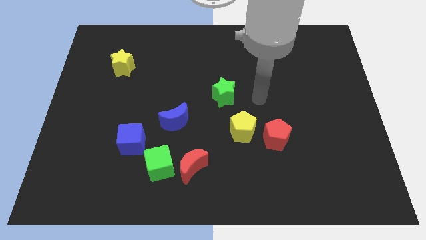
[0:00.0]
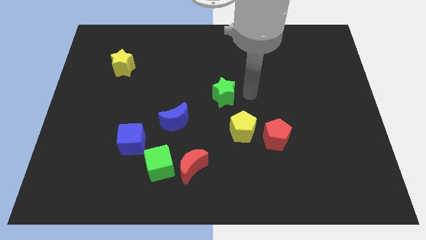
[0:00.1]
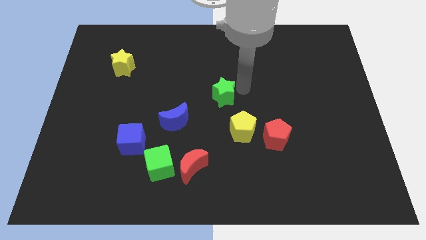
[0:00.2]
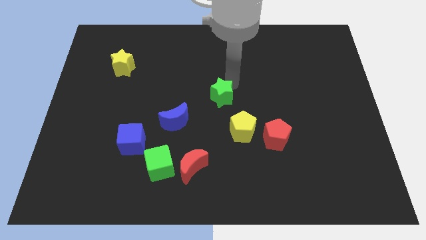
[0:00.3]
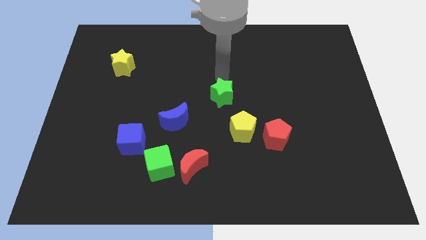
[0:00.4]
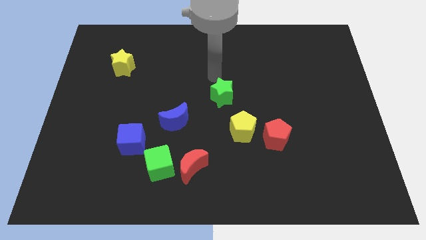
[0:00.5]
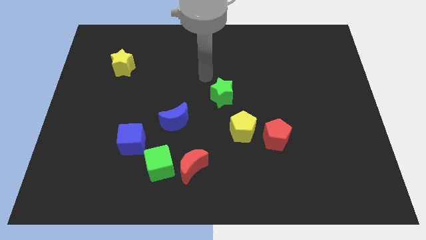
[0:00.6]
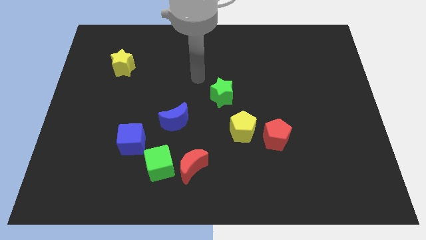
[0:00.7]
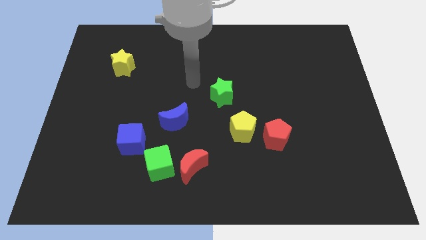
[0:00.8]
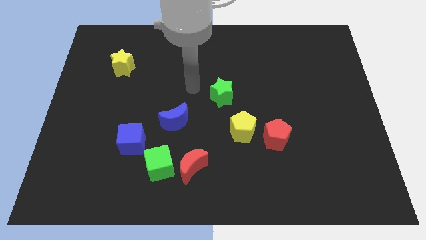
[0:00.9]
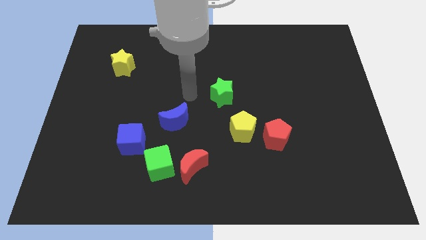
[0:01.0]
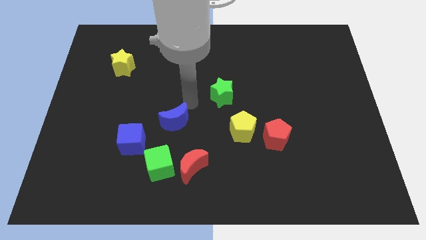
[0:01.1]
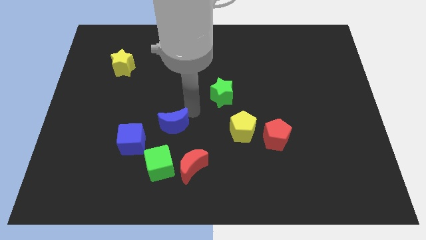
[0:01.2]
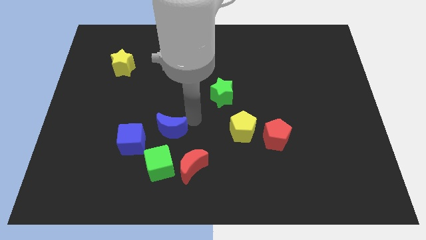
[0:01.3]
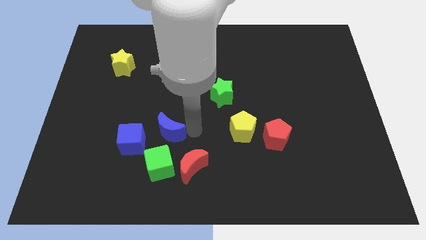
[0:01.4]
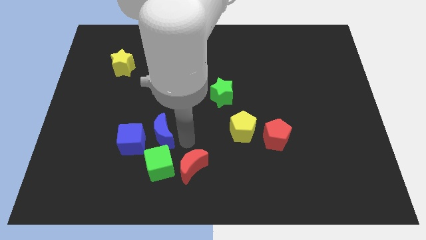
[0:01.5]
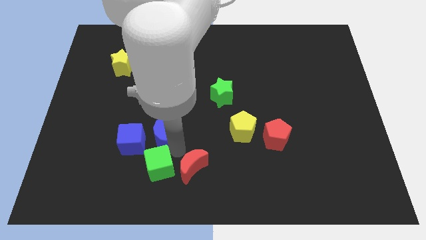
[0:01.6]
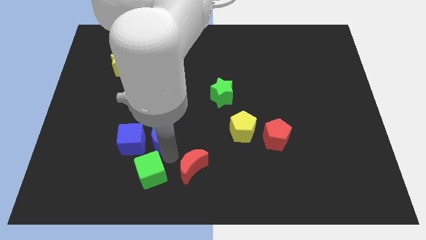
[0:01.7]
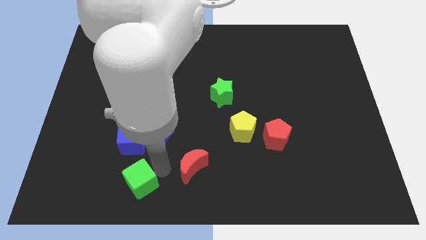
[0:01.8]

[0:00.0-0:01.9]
pull the red moon apart from the green cube

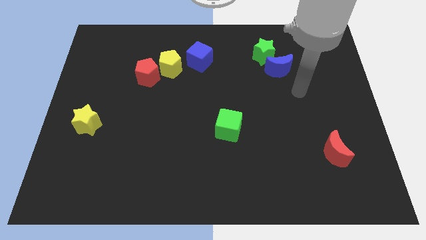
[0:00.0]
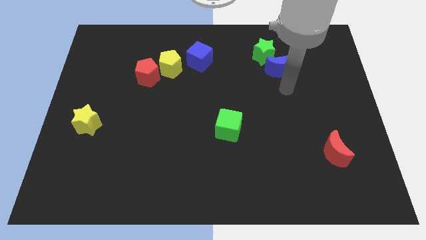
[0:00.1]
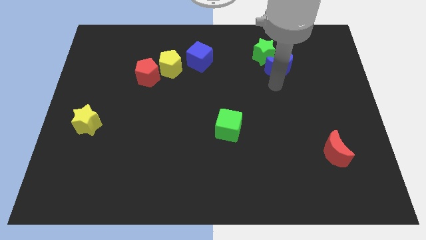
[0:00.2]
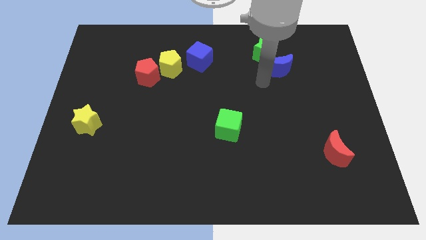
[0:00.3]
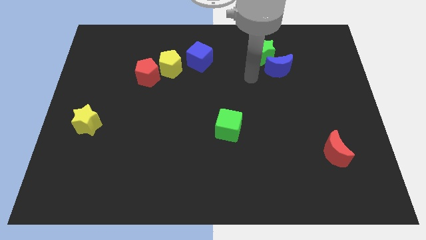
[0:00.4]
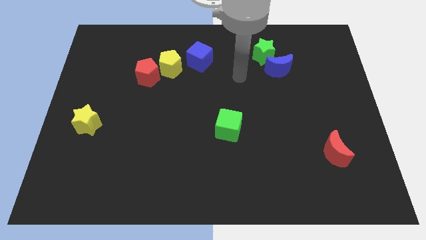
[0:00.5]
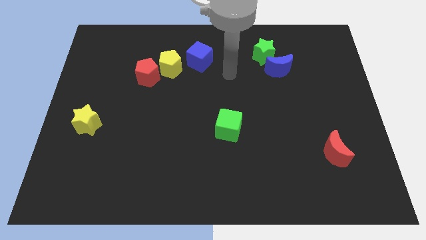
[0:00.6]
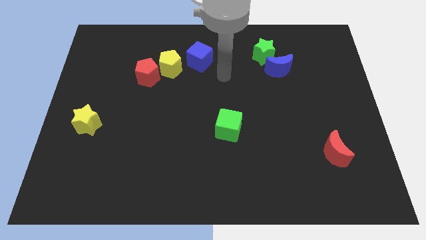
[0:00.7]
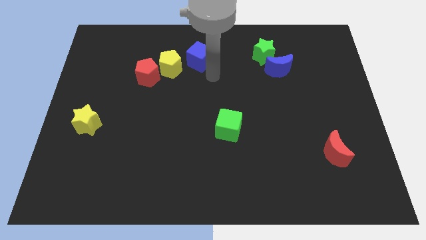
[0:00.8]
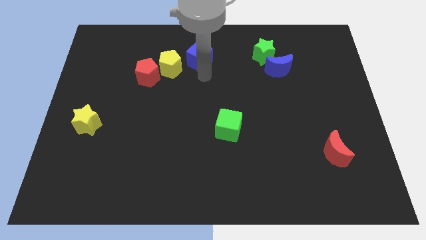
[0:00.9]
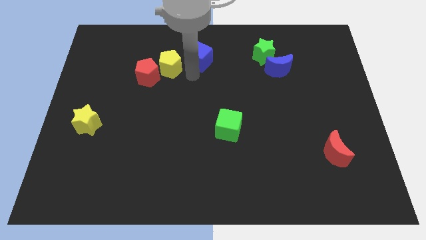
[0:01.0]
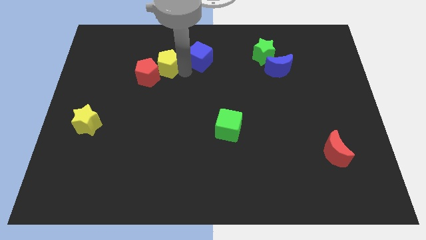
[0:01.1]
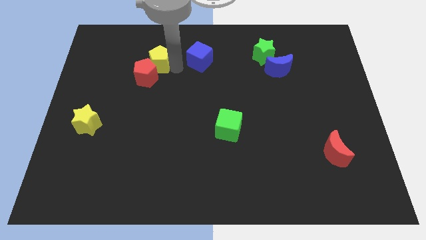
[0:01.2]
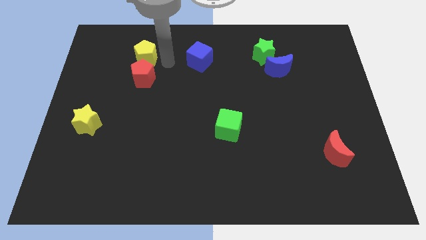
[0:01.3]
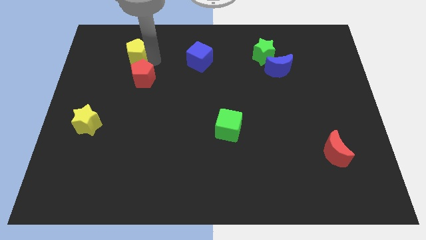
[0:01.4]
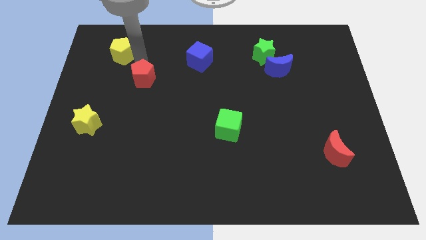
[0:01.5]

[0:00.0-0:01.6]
move the red pentagon away from the yellow pentagon

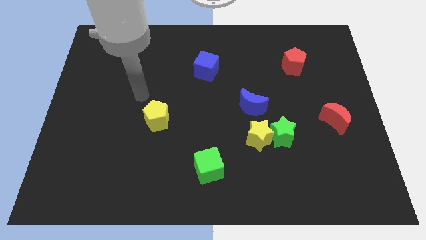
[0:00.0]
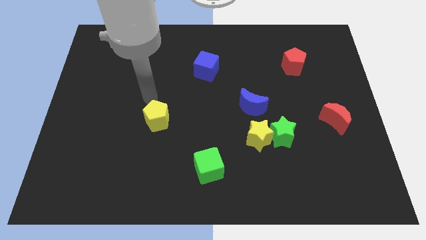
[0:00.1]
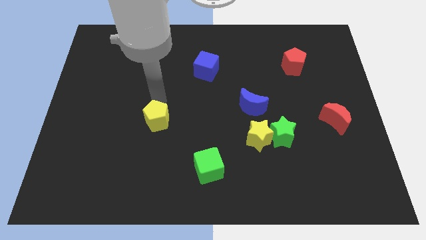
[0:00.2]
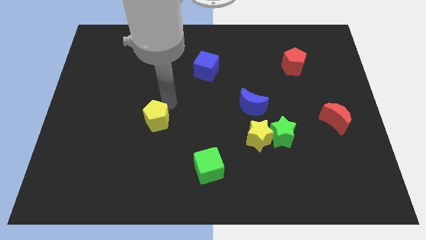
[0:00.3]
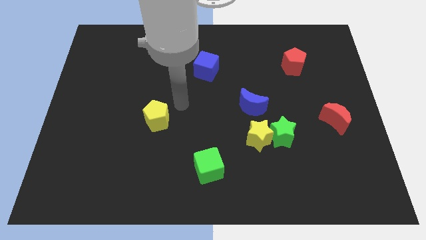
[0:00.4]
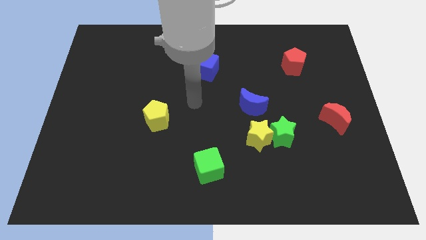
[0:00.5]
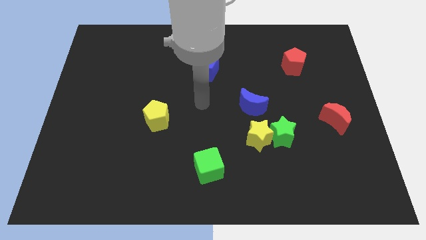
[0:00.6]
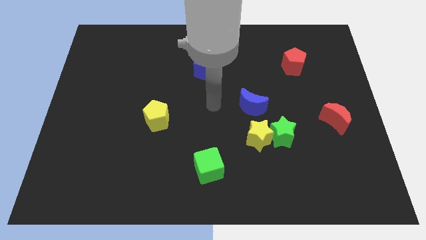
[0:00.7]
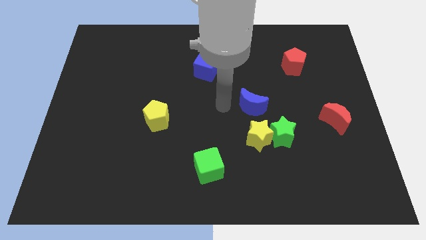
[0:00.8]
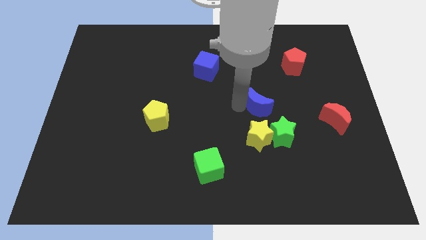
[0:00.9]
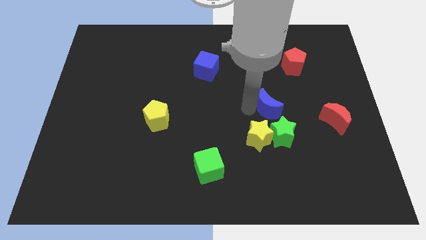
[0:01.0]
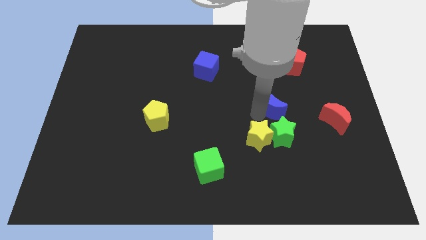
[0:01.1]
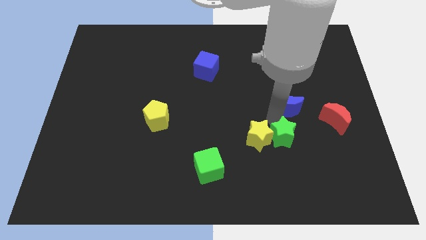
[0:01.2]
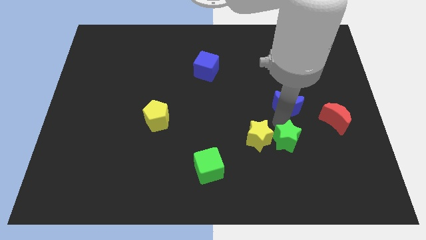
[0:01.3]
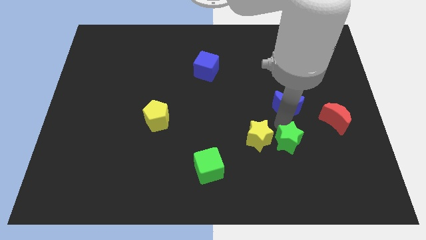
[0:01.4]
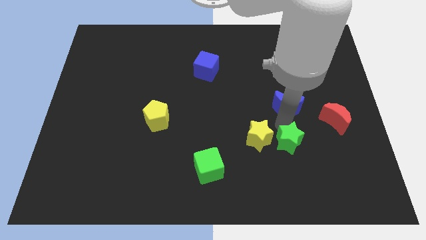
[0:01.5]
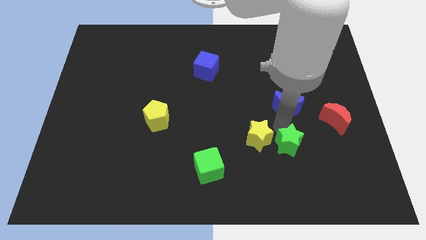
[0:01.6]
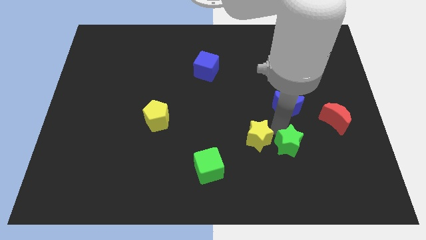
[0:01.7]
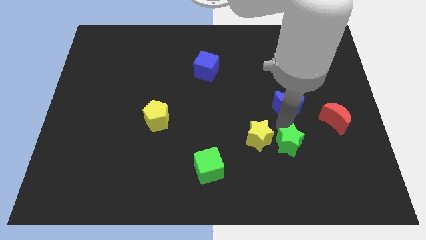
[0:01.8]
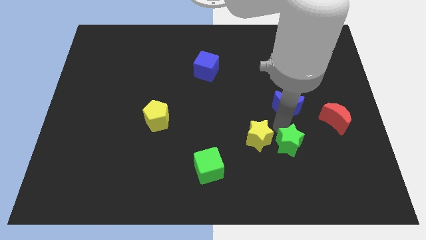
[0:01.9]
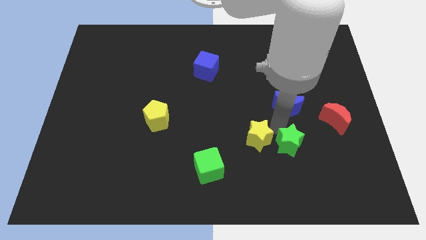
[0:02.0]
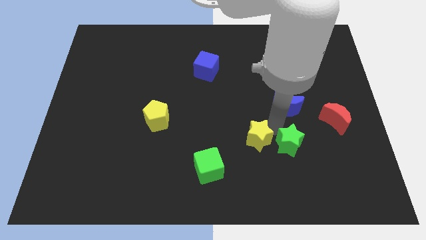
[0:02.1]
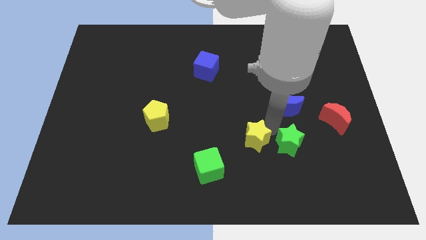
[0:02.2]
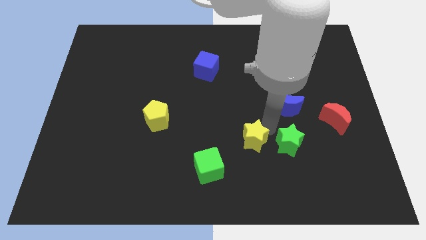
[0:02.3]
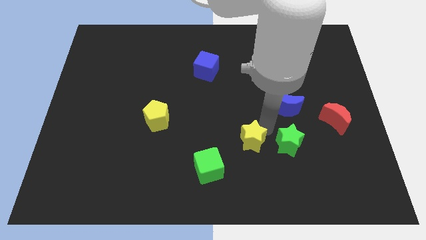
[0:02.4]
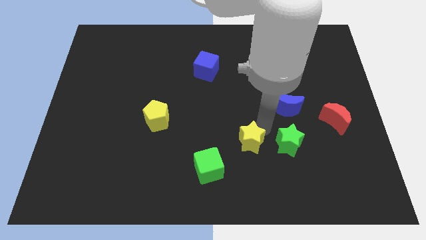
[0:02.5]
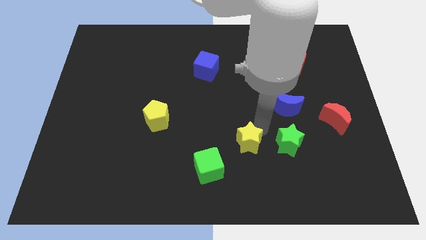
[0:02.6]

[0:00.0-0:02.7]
move the yellow star away from the green star and blue moon

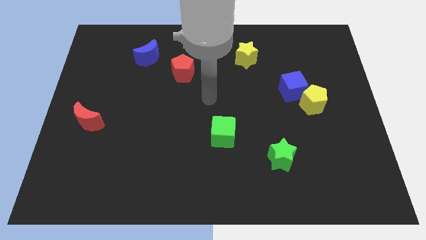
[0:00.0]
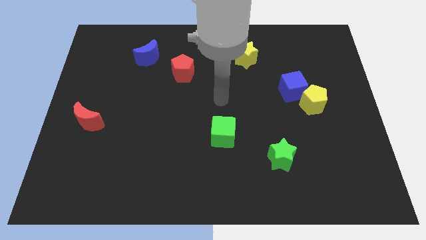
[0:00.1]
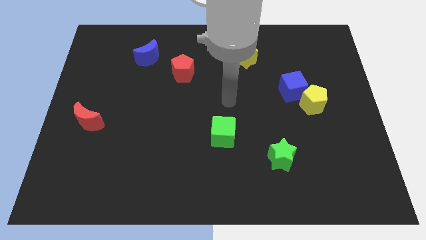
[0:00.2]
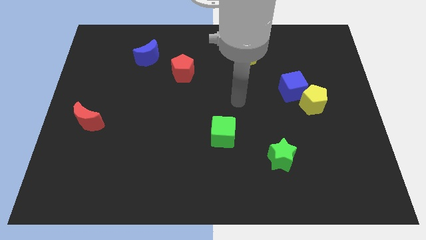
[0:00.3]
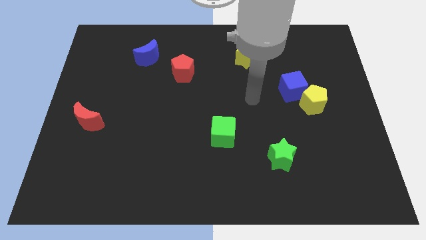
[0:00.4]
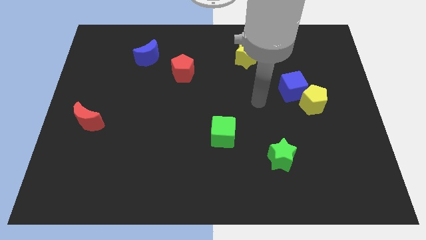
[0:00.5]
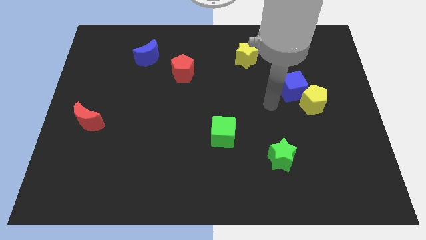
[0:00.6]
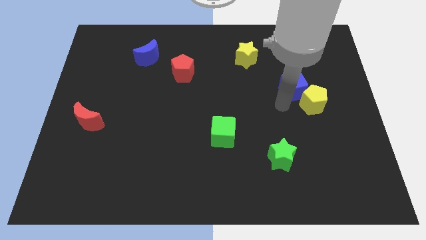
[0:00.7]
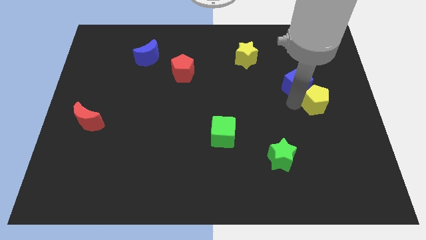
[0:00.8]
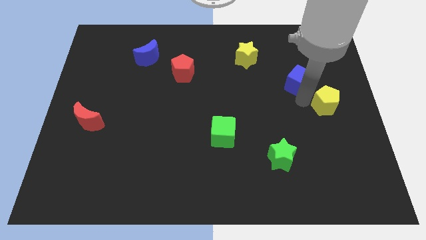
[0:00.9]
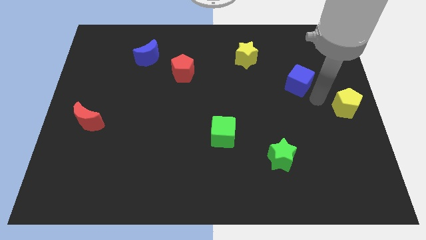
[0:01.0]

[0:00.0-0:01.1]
move the blue cube away from the yellow pentagon

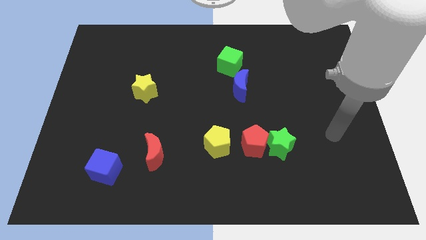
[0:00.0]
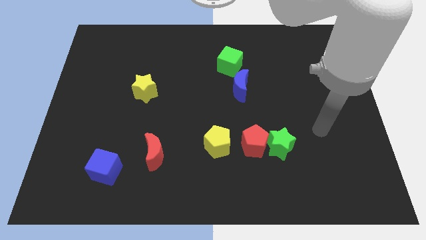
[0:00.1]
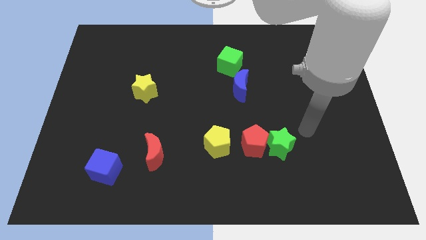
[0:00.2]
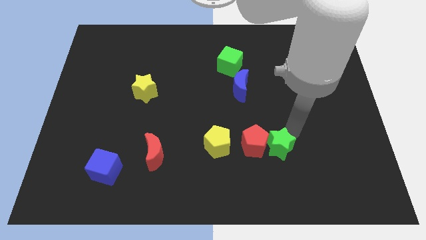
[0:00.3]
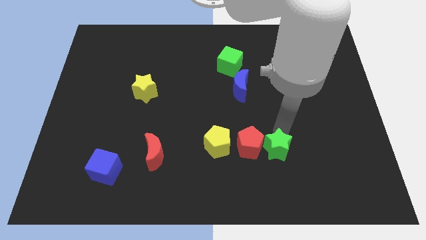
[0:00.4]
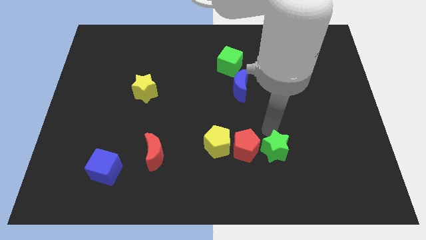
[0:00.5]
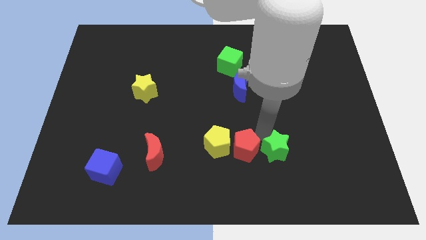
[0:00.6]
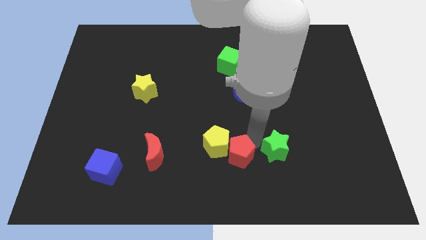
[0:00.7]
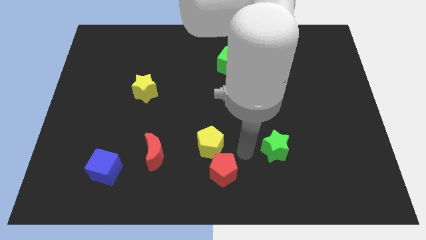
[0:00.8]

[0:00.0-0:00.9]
move the green star away from the red pentagon

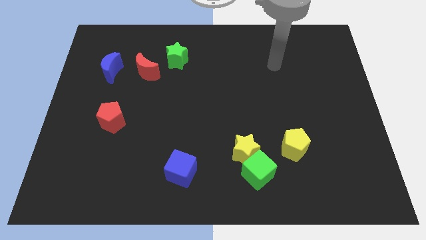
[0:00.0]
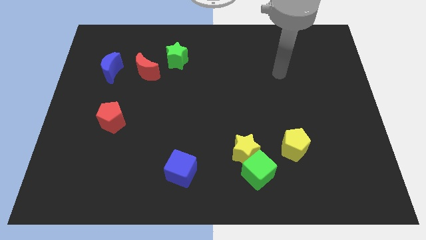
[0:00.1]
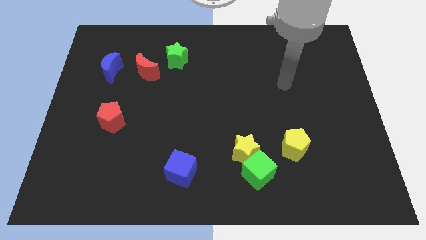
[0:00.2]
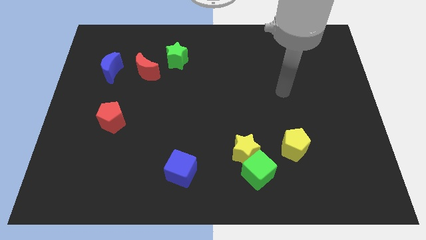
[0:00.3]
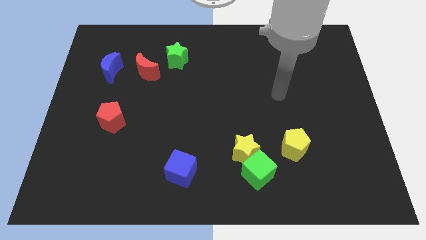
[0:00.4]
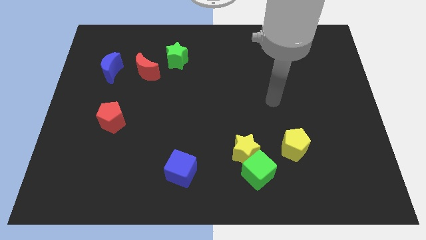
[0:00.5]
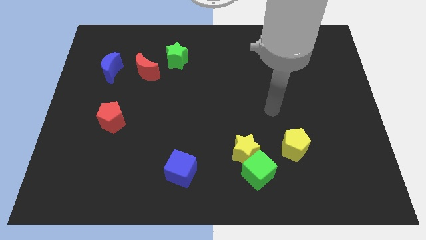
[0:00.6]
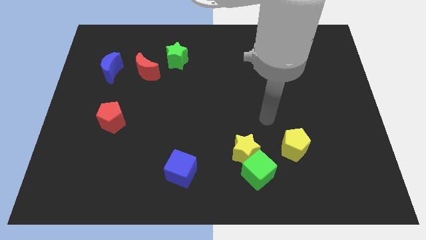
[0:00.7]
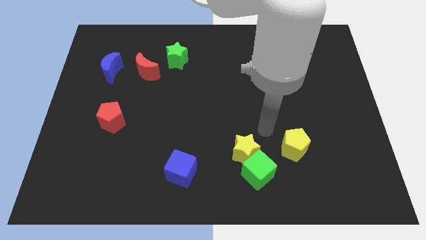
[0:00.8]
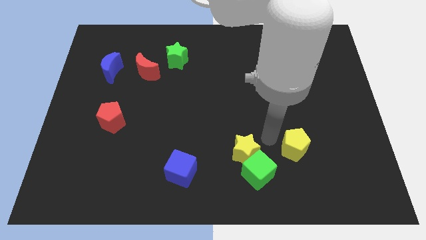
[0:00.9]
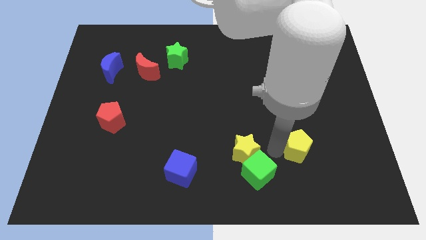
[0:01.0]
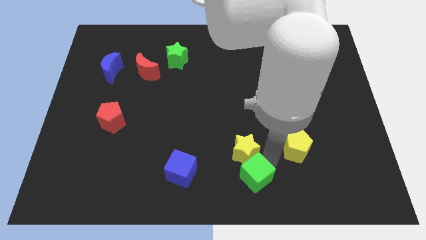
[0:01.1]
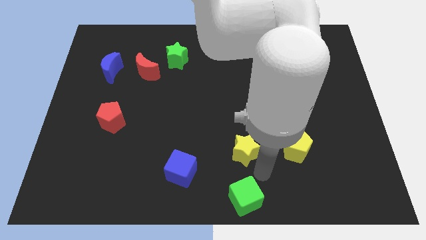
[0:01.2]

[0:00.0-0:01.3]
move the yellow star away from the green cube
